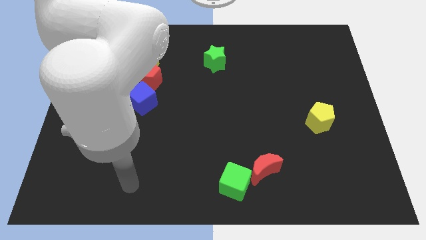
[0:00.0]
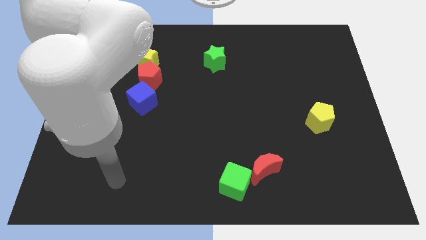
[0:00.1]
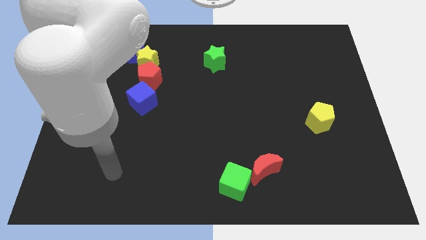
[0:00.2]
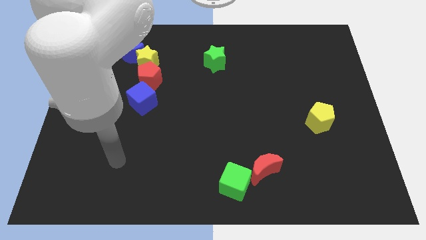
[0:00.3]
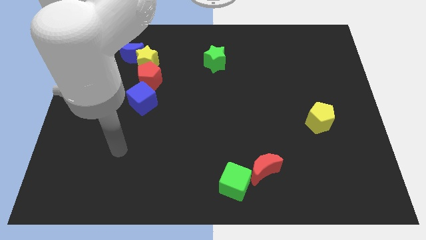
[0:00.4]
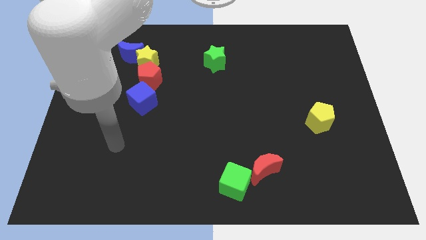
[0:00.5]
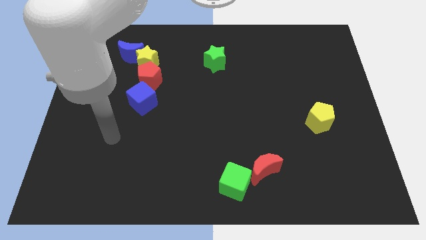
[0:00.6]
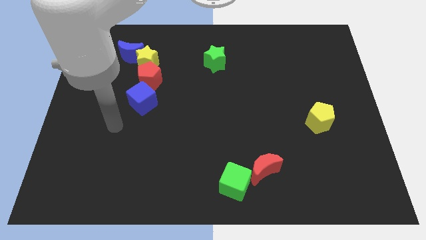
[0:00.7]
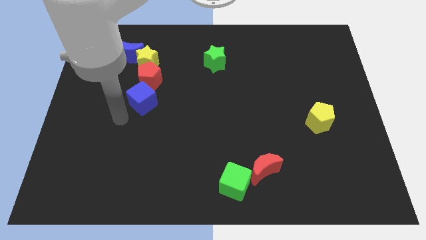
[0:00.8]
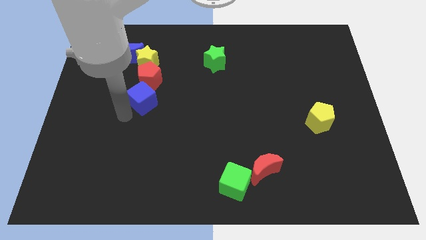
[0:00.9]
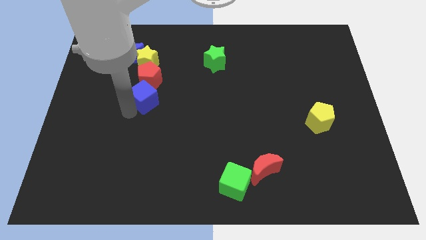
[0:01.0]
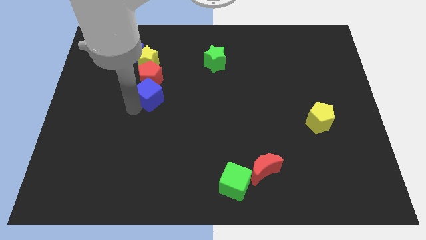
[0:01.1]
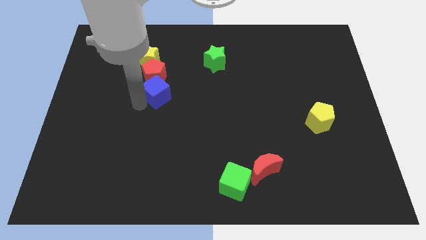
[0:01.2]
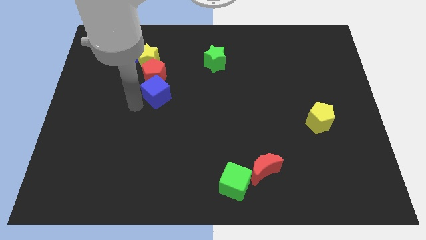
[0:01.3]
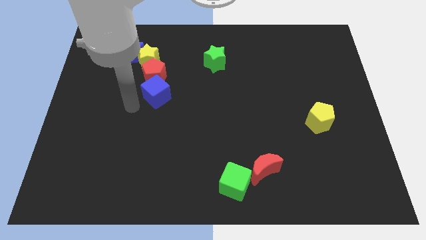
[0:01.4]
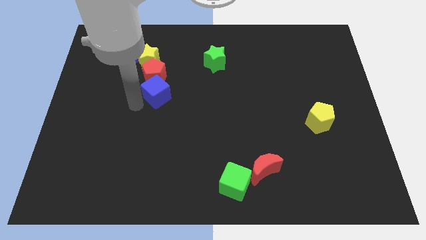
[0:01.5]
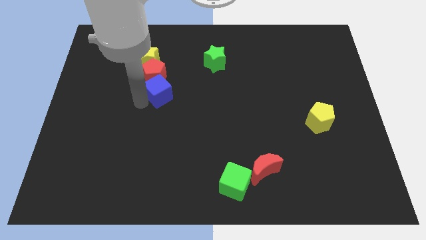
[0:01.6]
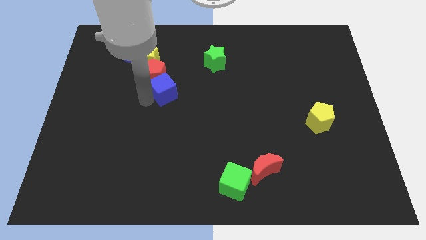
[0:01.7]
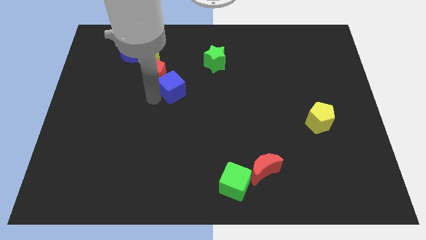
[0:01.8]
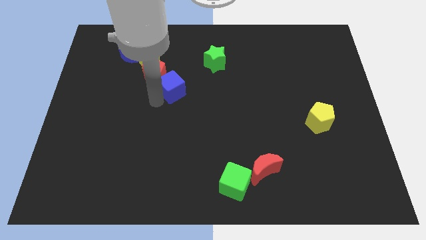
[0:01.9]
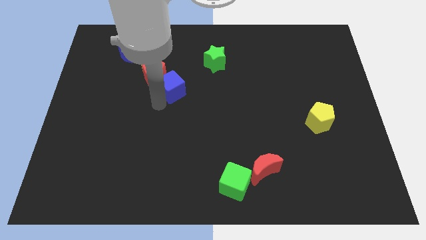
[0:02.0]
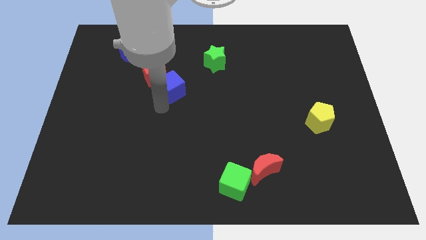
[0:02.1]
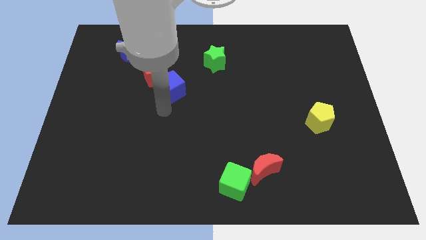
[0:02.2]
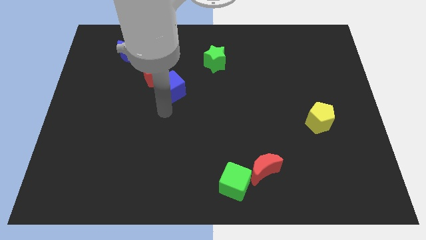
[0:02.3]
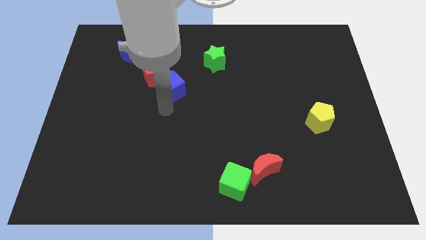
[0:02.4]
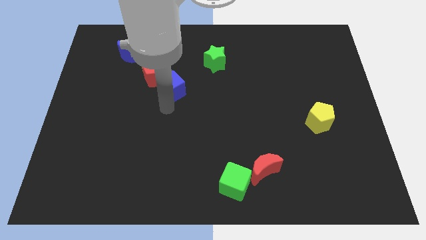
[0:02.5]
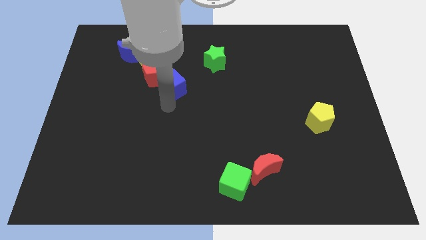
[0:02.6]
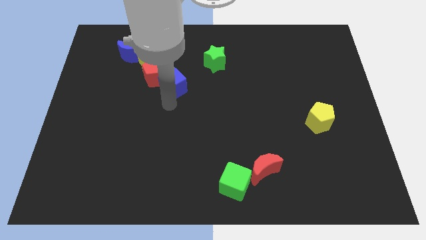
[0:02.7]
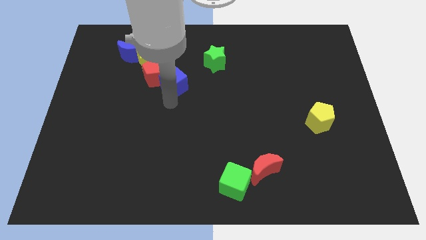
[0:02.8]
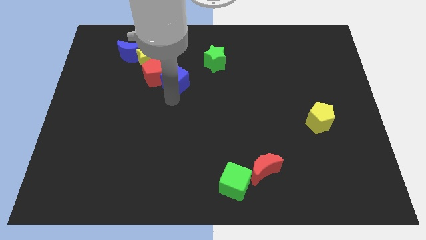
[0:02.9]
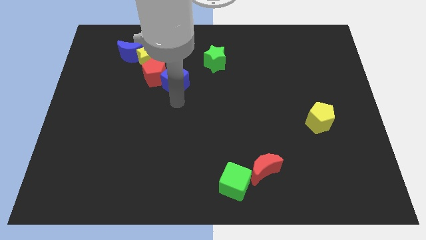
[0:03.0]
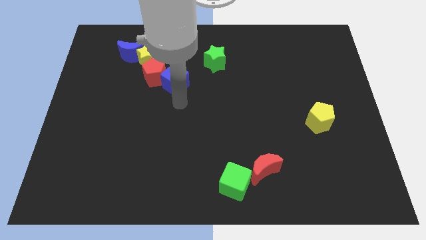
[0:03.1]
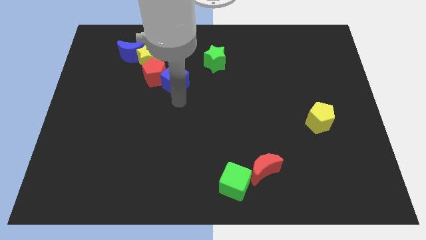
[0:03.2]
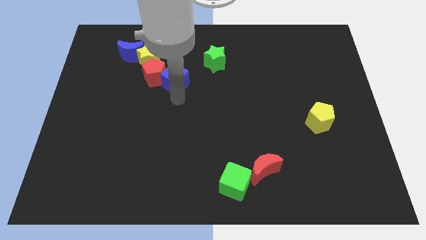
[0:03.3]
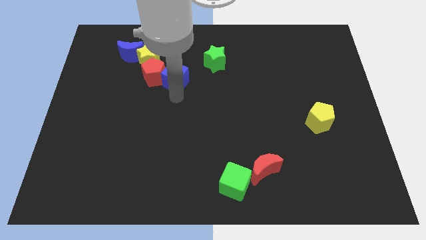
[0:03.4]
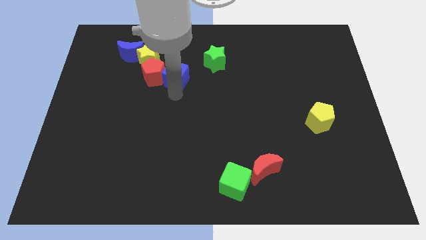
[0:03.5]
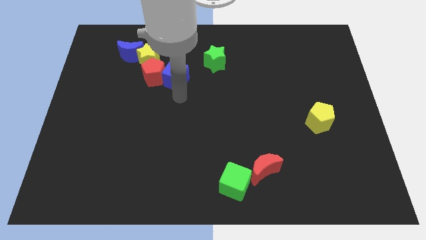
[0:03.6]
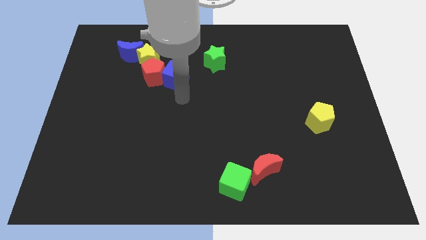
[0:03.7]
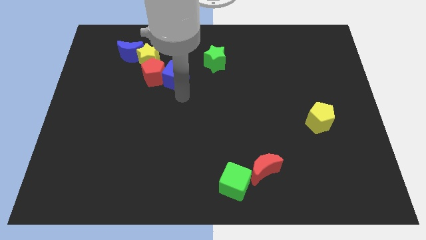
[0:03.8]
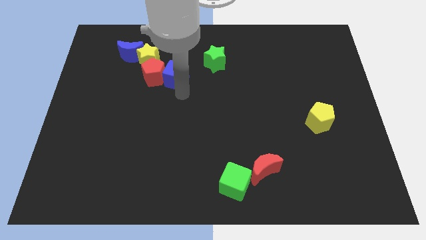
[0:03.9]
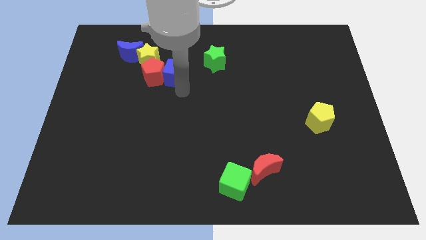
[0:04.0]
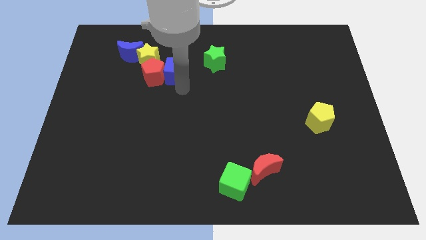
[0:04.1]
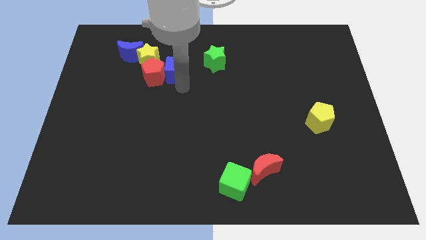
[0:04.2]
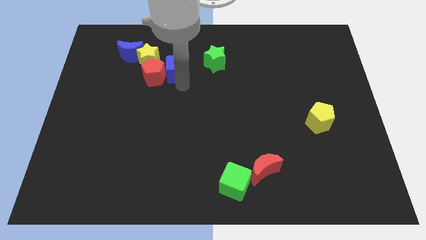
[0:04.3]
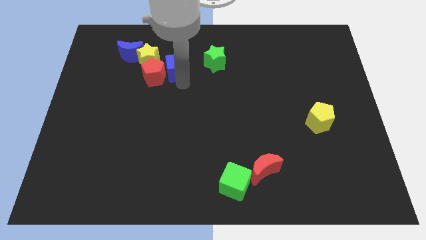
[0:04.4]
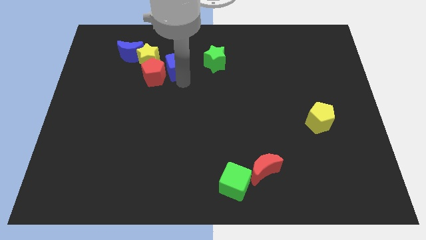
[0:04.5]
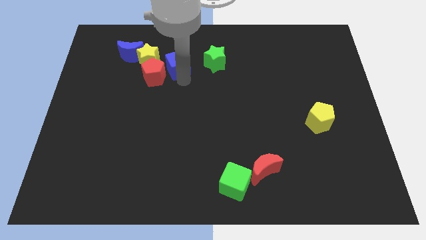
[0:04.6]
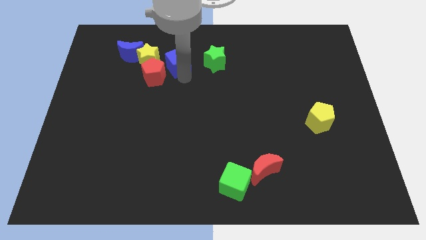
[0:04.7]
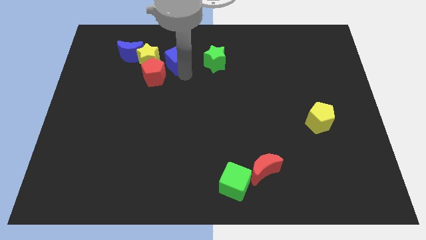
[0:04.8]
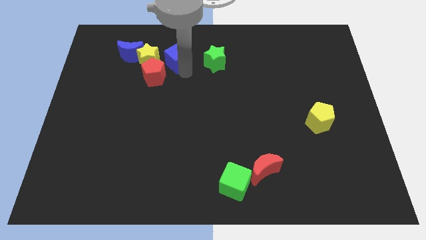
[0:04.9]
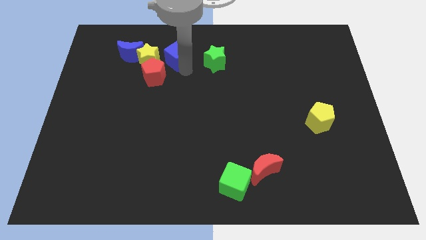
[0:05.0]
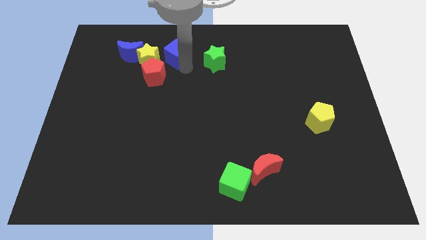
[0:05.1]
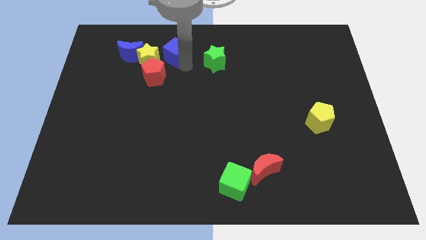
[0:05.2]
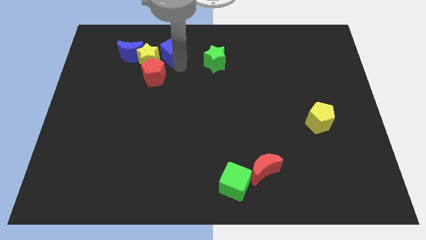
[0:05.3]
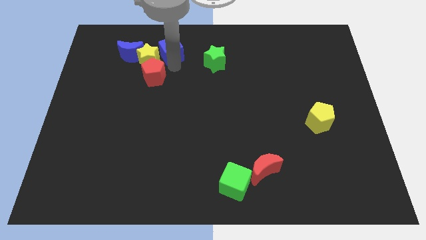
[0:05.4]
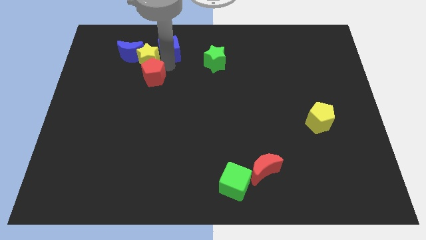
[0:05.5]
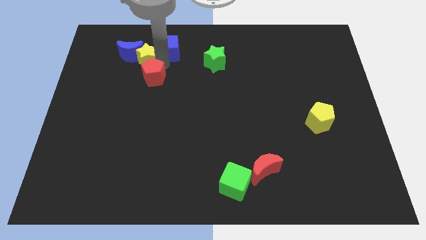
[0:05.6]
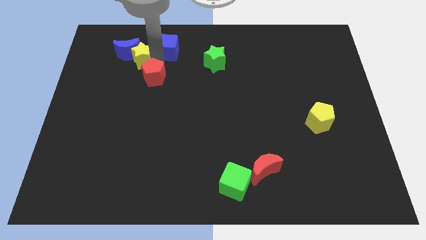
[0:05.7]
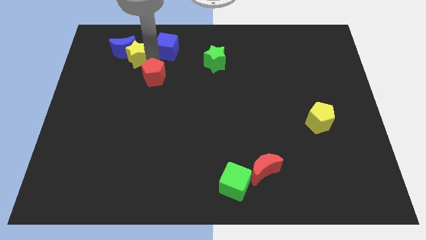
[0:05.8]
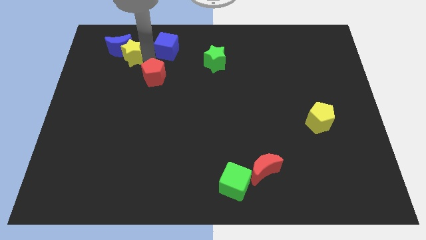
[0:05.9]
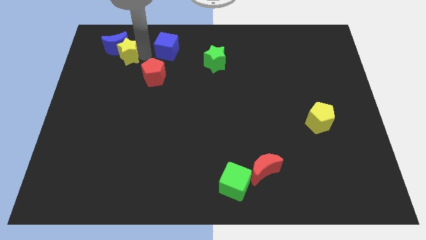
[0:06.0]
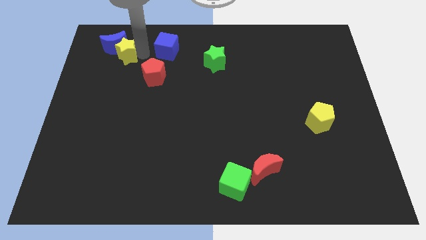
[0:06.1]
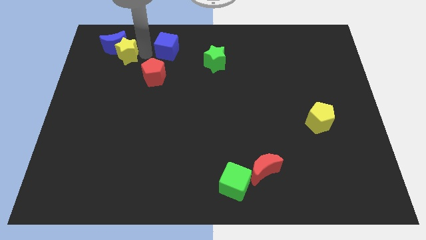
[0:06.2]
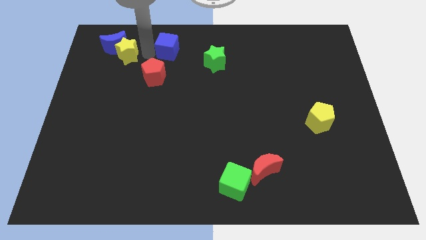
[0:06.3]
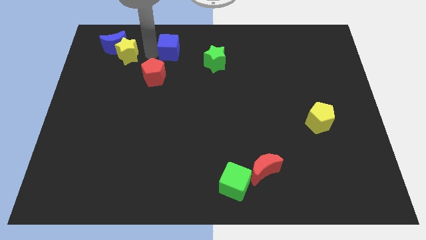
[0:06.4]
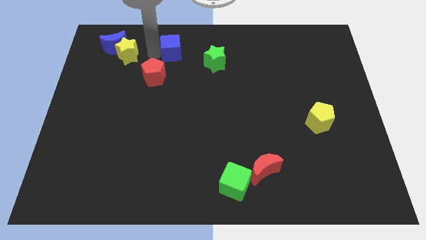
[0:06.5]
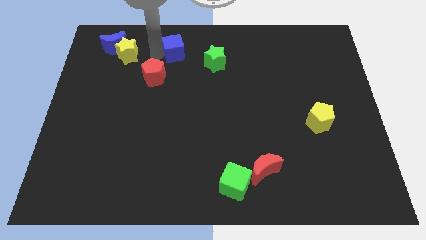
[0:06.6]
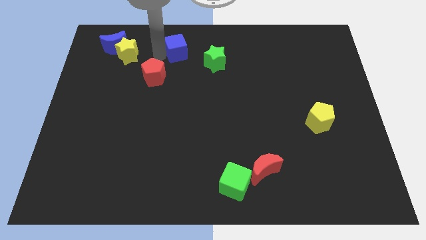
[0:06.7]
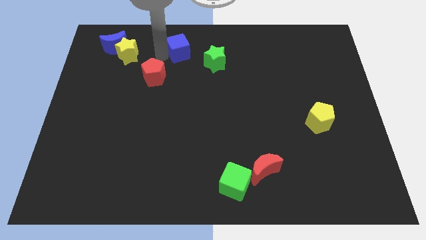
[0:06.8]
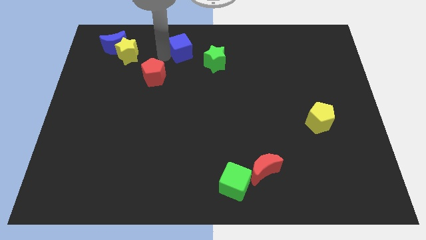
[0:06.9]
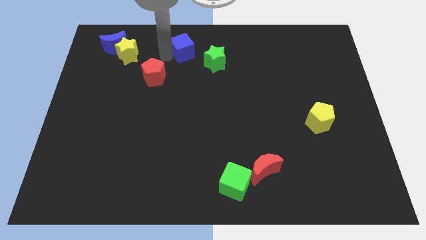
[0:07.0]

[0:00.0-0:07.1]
push the blue cube to the top
